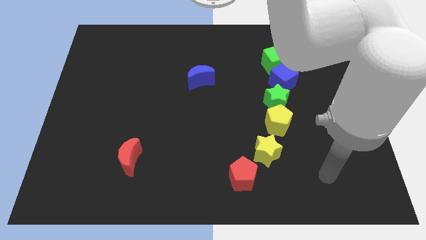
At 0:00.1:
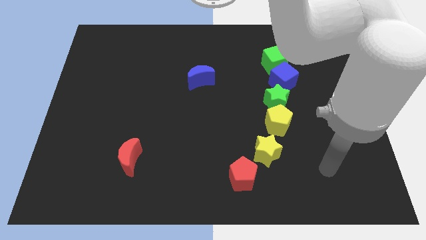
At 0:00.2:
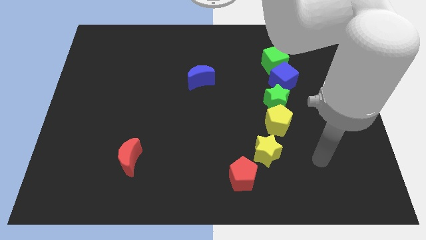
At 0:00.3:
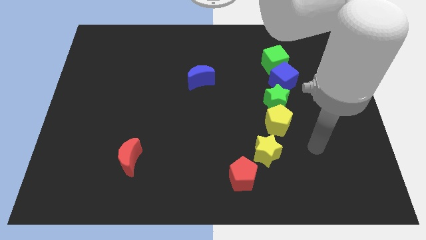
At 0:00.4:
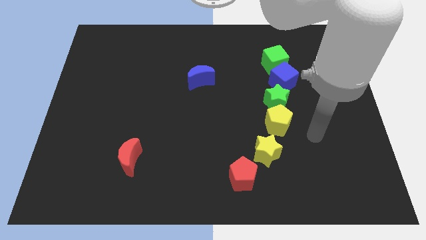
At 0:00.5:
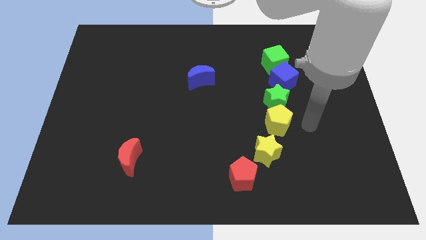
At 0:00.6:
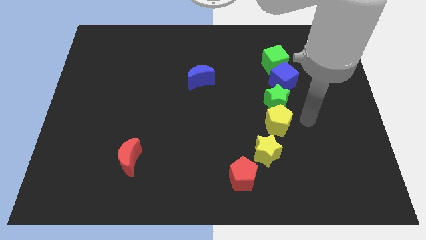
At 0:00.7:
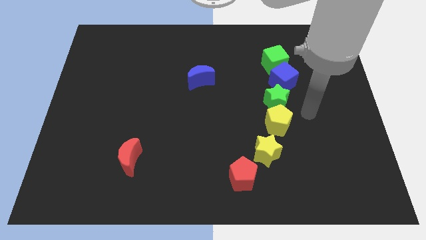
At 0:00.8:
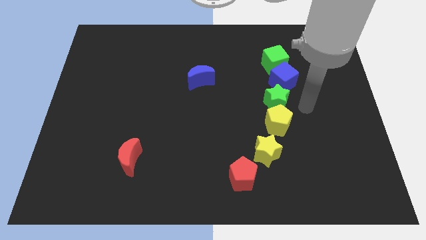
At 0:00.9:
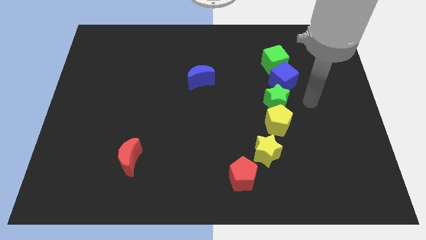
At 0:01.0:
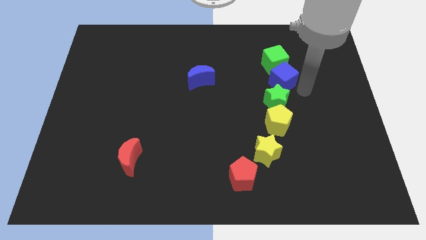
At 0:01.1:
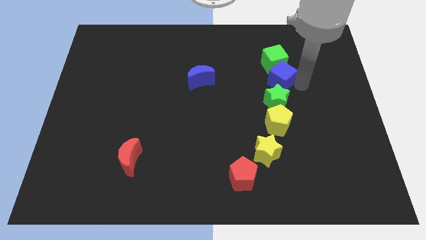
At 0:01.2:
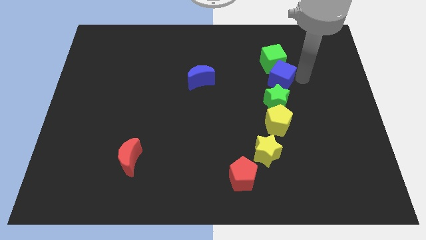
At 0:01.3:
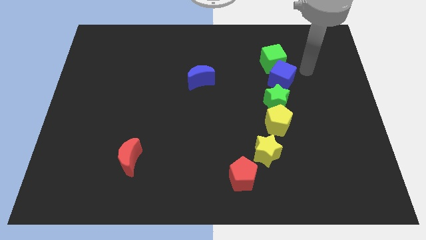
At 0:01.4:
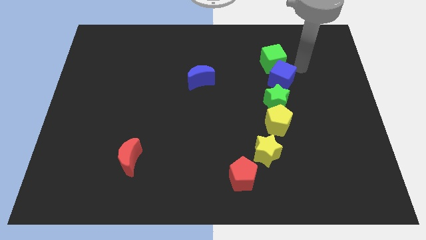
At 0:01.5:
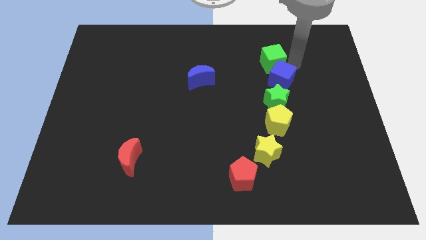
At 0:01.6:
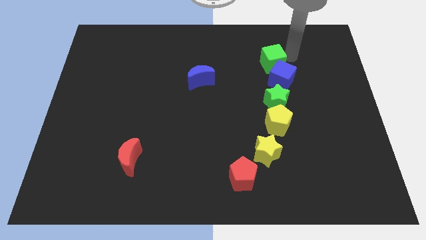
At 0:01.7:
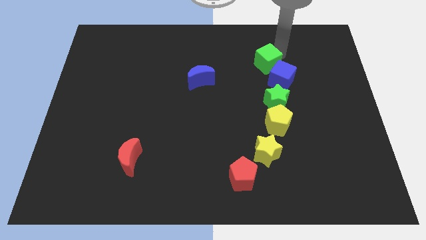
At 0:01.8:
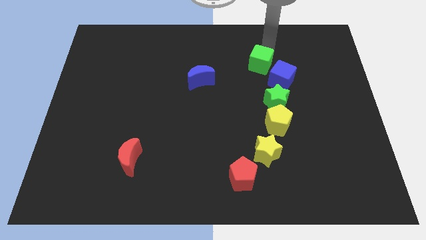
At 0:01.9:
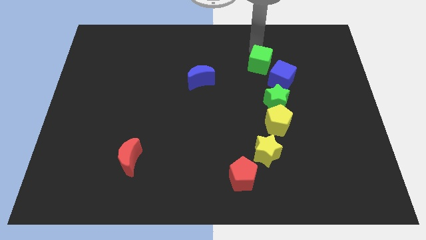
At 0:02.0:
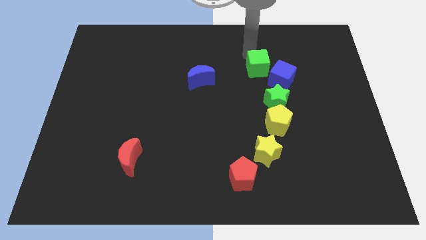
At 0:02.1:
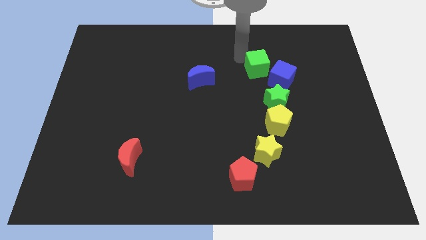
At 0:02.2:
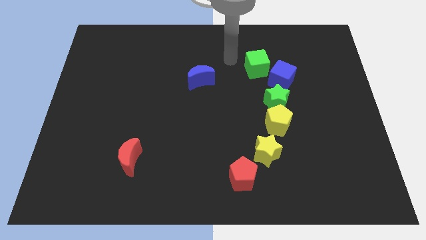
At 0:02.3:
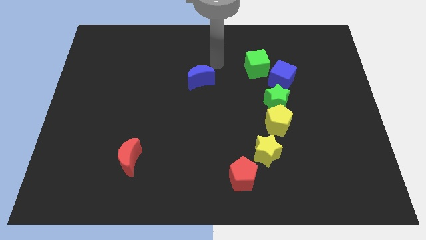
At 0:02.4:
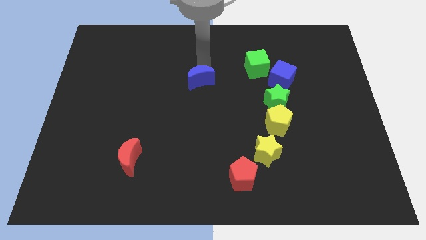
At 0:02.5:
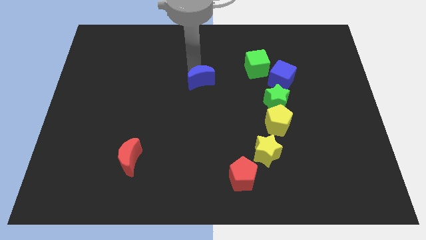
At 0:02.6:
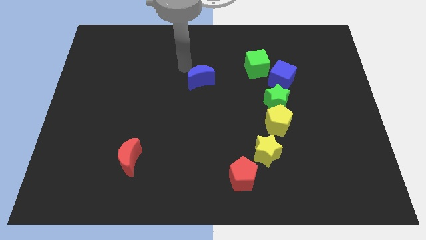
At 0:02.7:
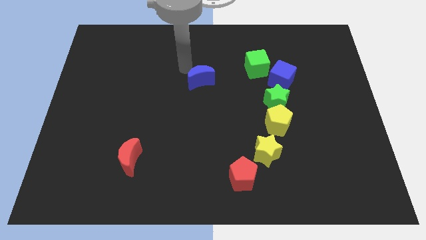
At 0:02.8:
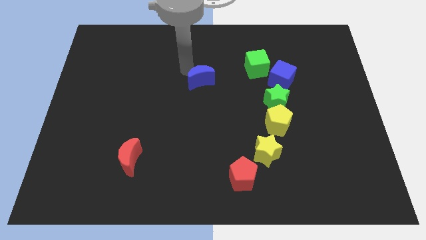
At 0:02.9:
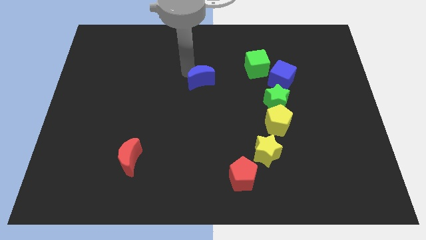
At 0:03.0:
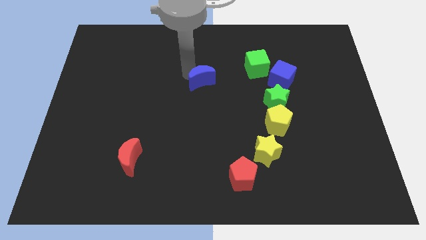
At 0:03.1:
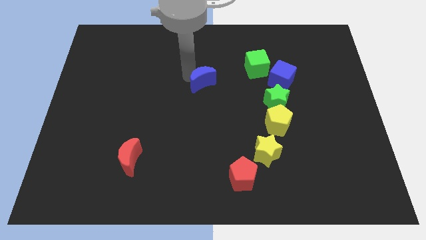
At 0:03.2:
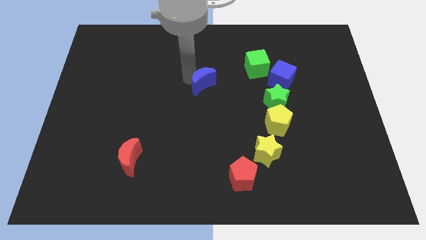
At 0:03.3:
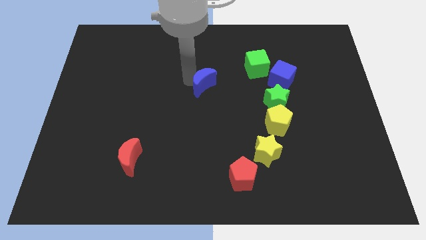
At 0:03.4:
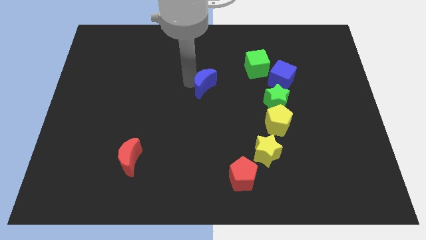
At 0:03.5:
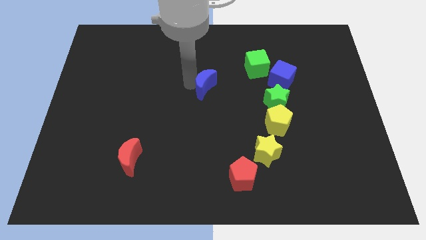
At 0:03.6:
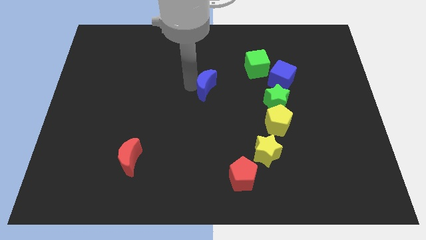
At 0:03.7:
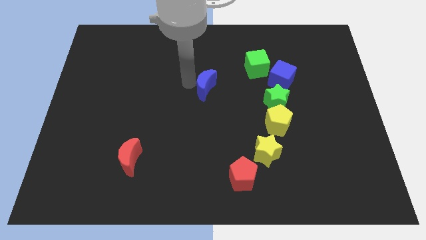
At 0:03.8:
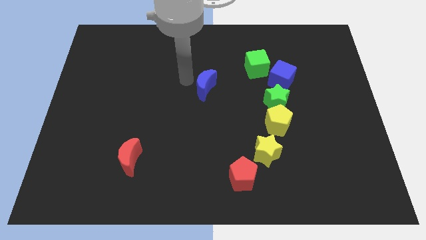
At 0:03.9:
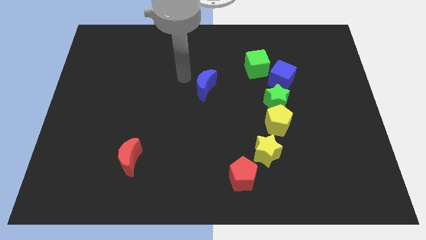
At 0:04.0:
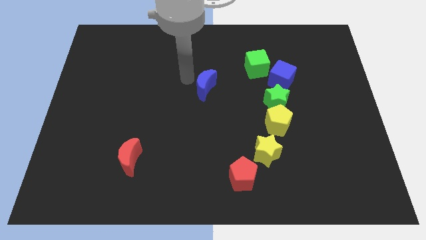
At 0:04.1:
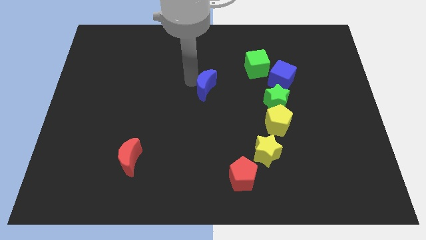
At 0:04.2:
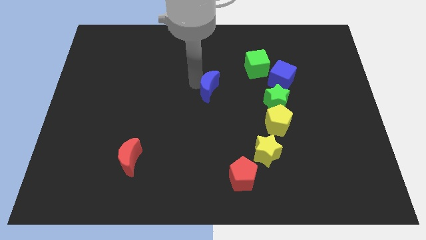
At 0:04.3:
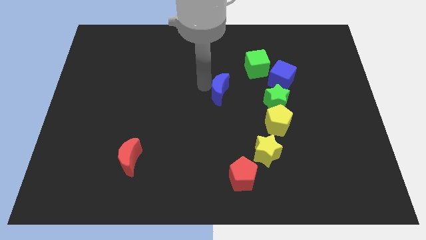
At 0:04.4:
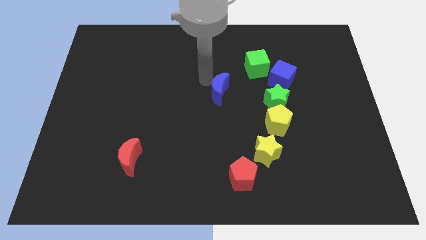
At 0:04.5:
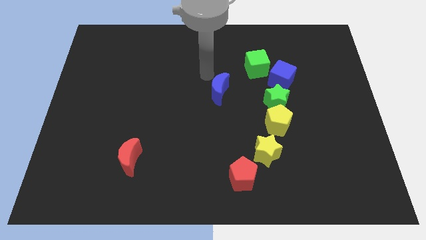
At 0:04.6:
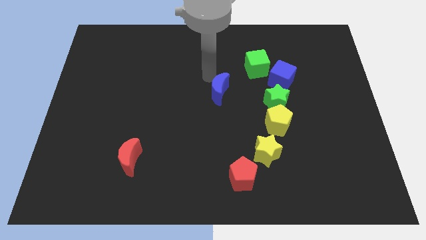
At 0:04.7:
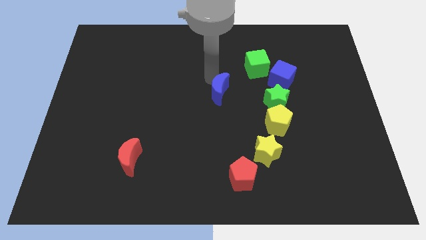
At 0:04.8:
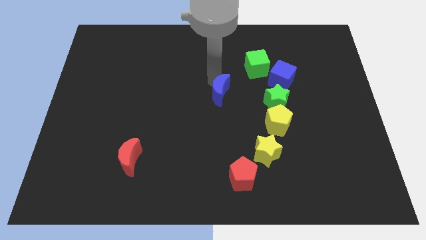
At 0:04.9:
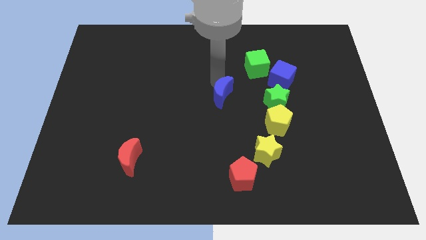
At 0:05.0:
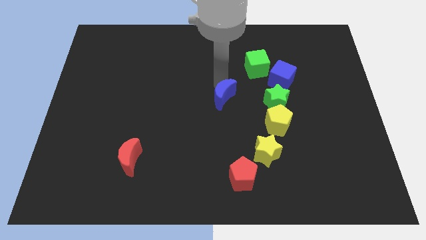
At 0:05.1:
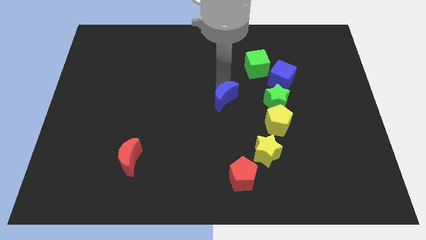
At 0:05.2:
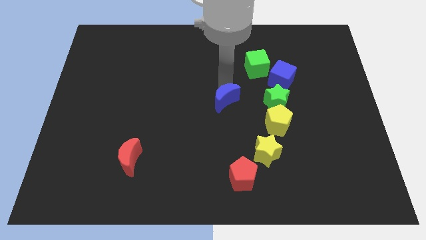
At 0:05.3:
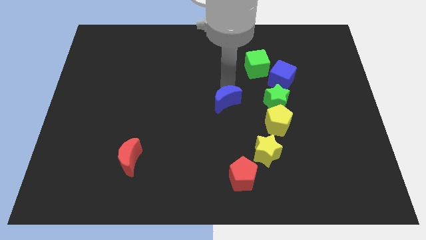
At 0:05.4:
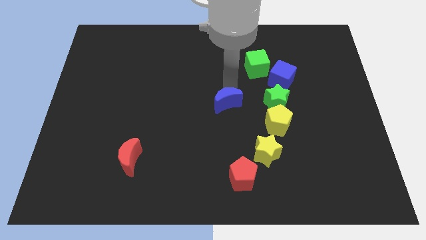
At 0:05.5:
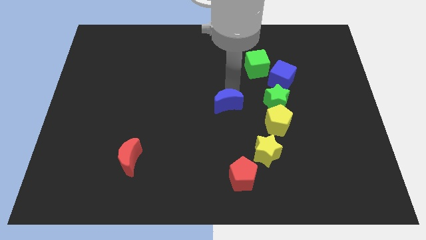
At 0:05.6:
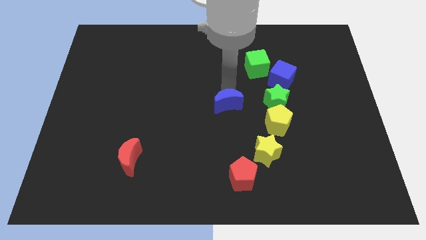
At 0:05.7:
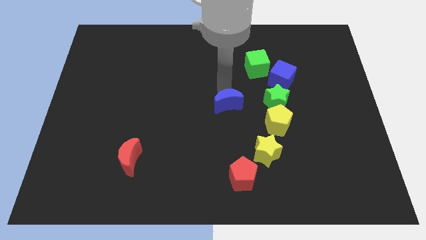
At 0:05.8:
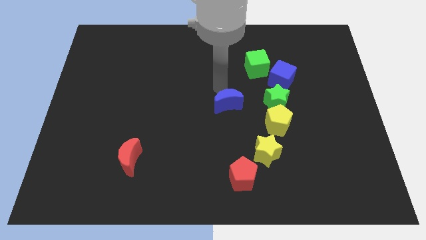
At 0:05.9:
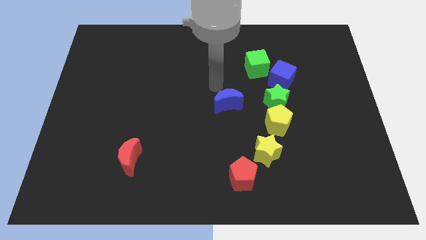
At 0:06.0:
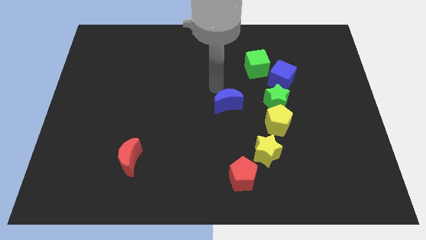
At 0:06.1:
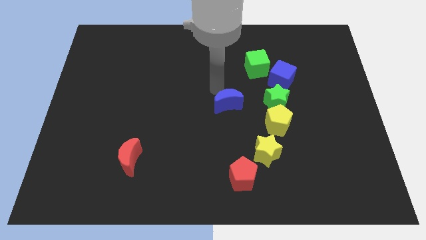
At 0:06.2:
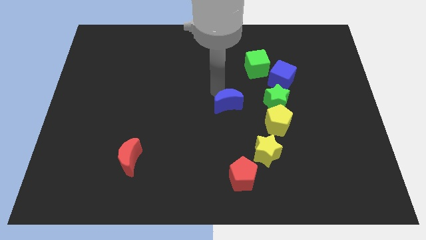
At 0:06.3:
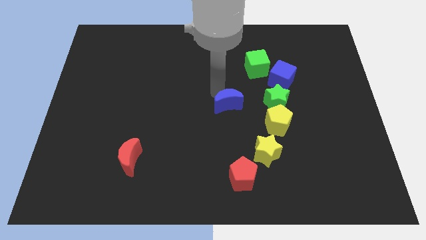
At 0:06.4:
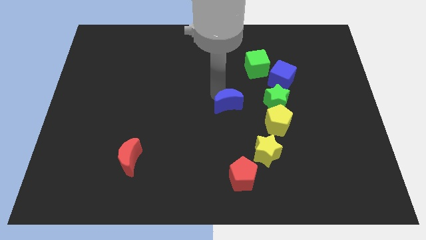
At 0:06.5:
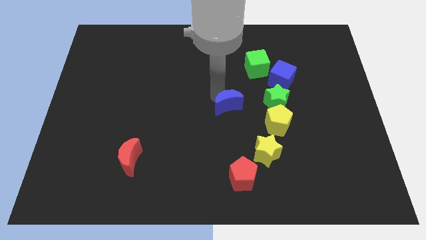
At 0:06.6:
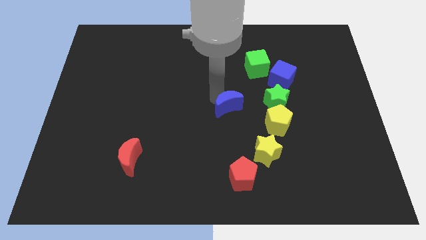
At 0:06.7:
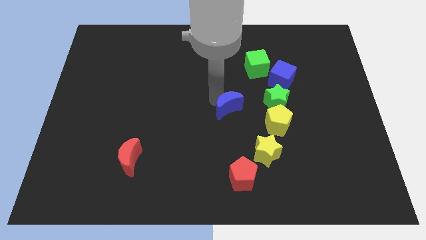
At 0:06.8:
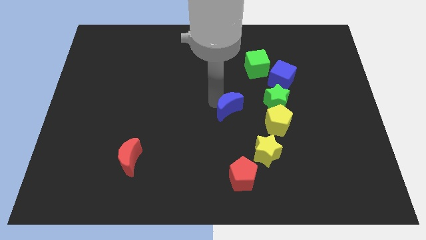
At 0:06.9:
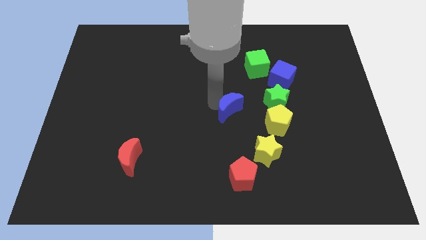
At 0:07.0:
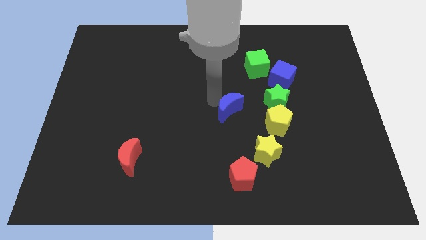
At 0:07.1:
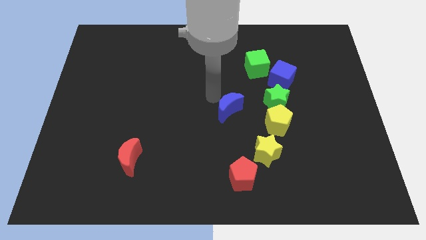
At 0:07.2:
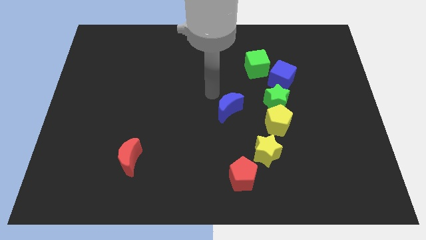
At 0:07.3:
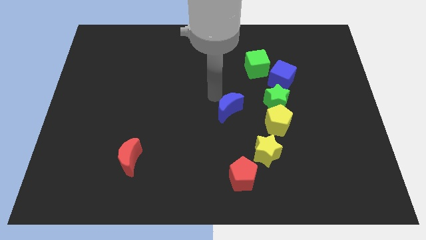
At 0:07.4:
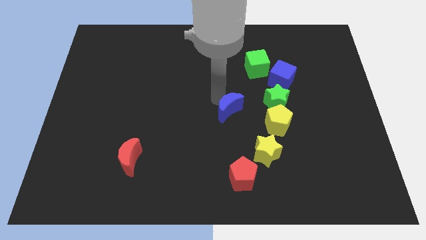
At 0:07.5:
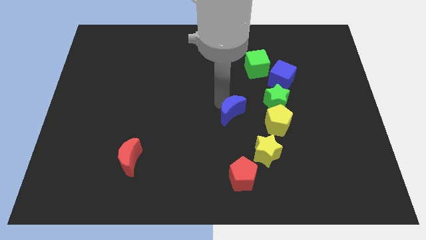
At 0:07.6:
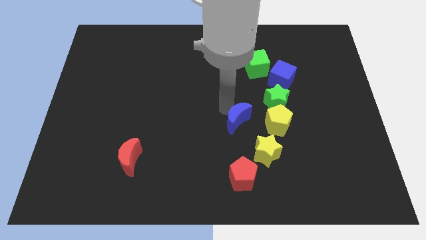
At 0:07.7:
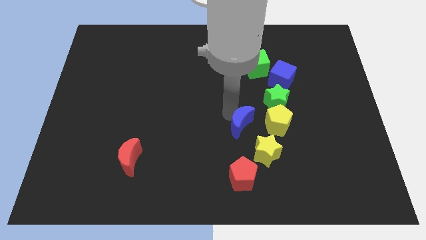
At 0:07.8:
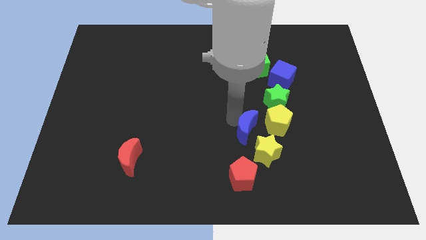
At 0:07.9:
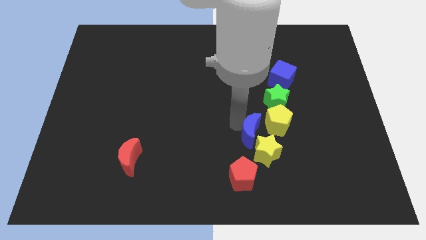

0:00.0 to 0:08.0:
move the blue moon next to the yellow star
